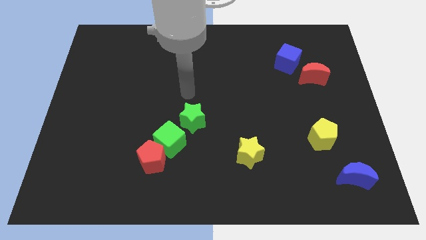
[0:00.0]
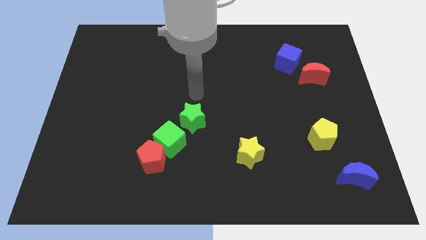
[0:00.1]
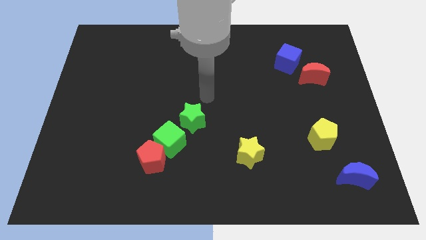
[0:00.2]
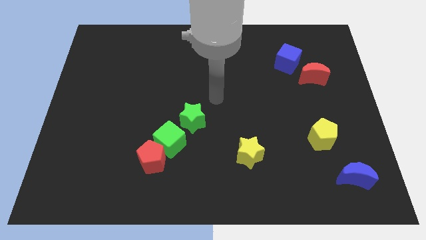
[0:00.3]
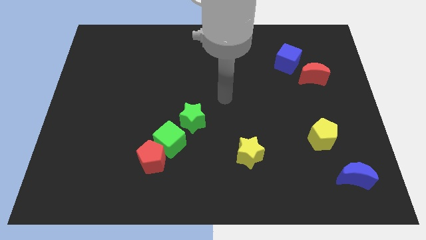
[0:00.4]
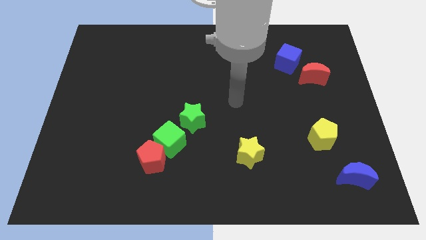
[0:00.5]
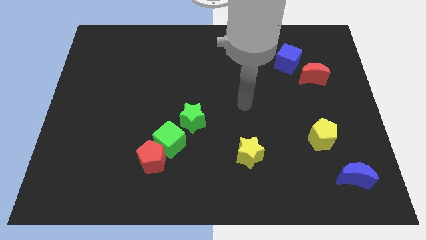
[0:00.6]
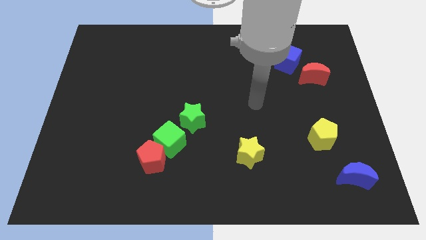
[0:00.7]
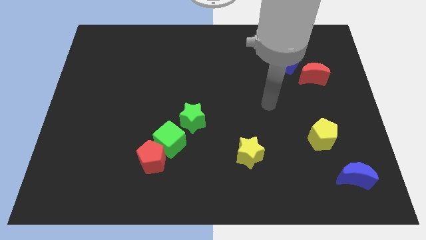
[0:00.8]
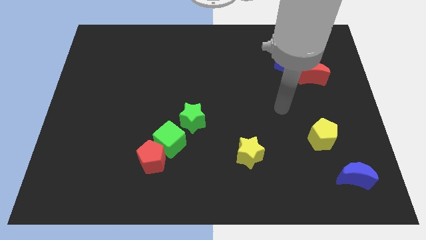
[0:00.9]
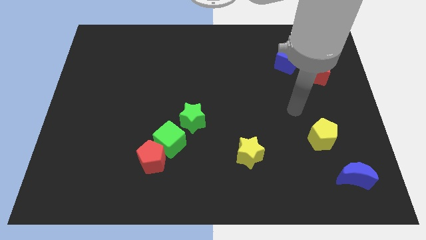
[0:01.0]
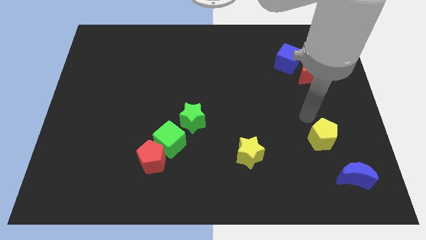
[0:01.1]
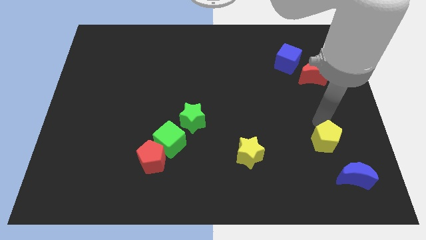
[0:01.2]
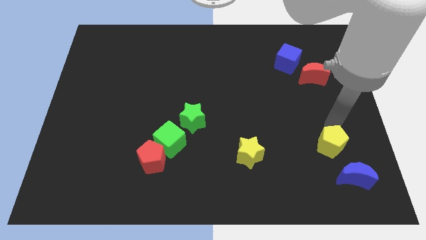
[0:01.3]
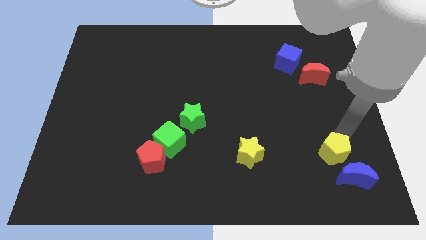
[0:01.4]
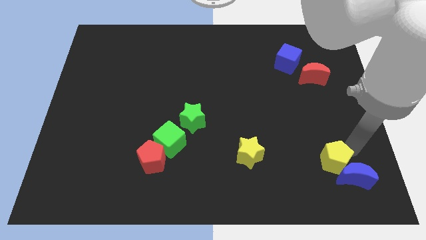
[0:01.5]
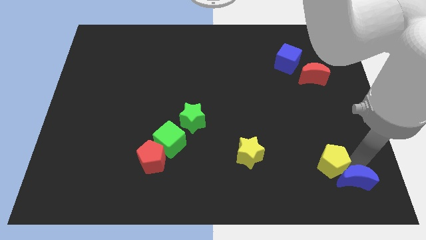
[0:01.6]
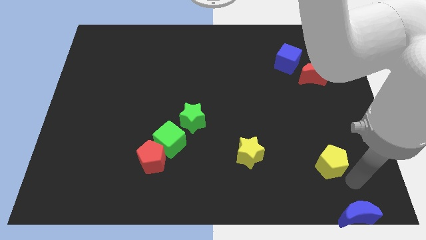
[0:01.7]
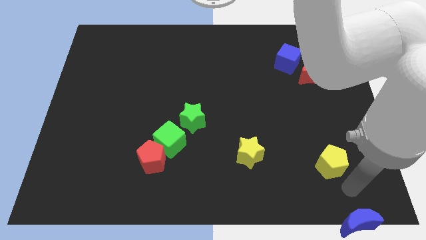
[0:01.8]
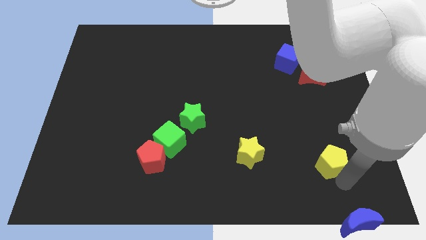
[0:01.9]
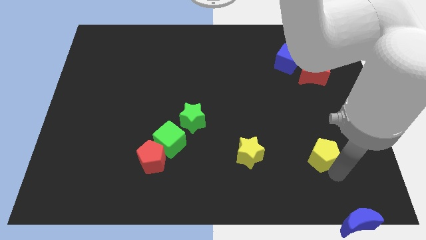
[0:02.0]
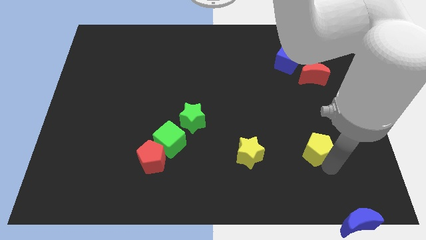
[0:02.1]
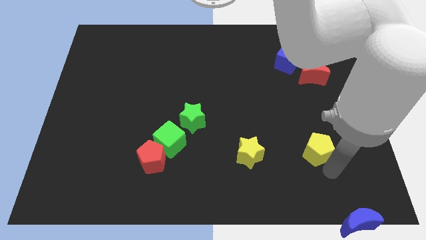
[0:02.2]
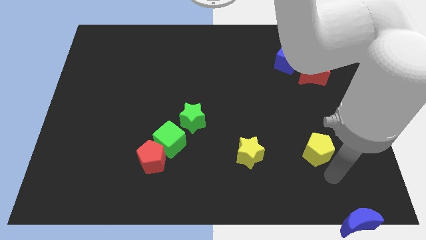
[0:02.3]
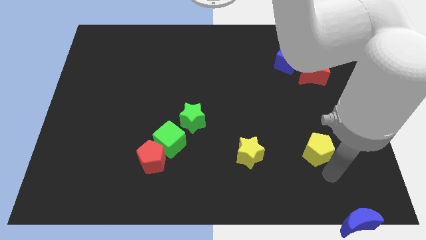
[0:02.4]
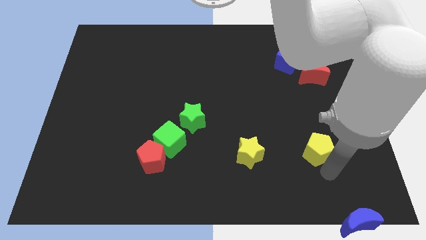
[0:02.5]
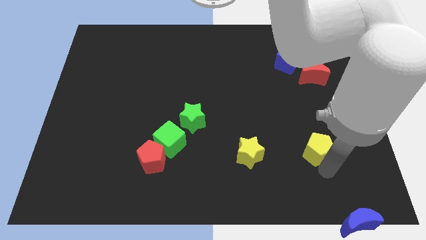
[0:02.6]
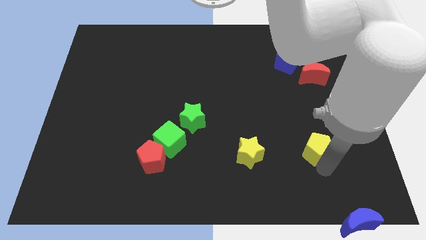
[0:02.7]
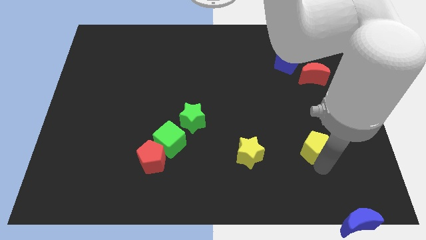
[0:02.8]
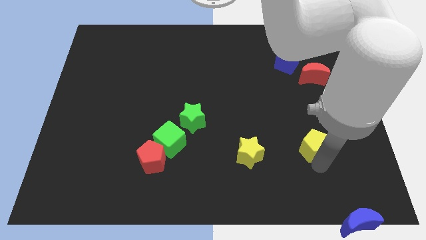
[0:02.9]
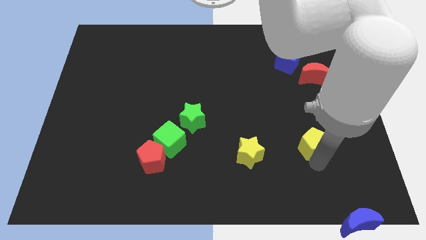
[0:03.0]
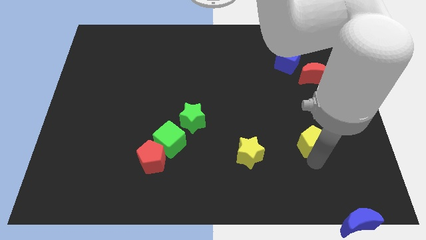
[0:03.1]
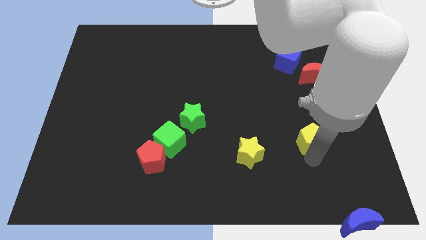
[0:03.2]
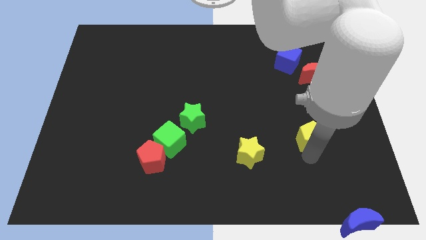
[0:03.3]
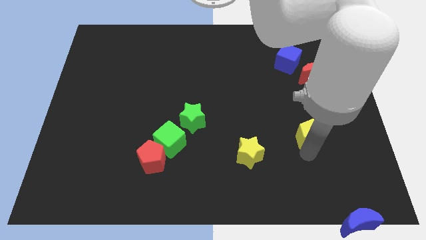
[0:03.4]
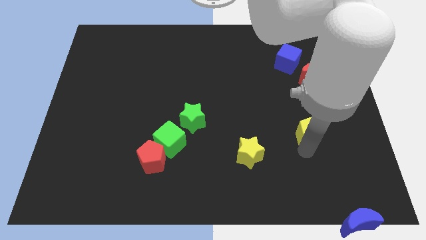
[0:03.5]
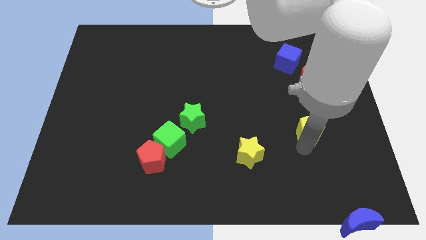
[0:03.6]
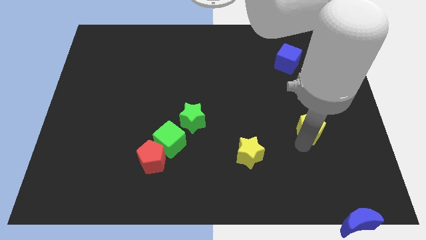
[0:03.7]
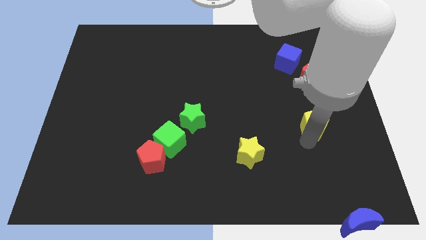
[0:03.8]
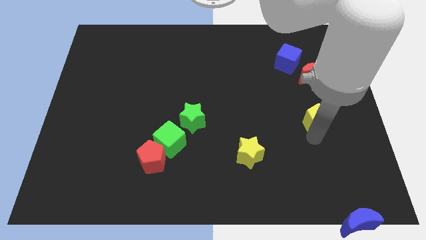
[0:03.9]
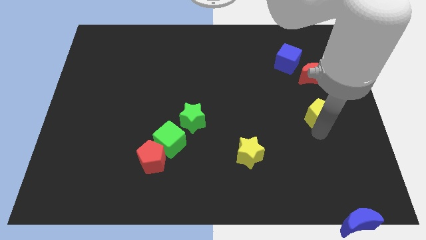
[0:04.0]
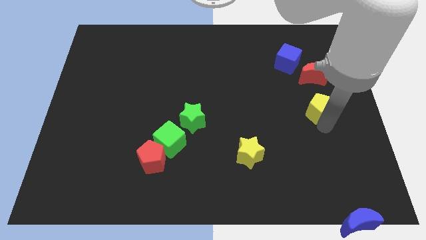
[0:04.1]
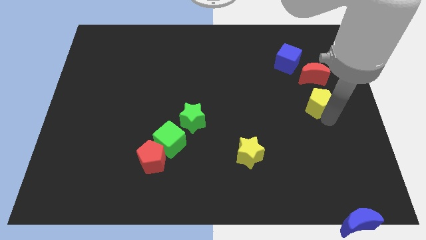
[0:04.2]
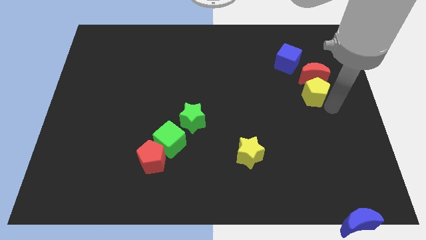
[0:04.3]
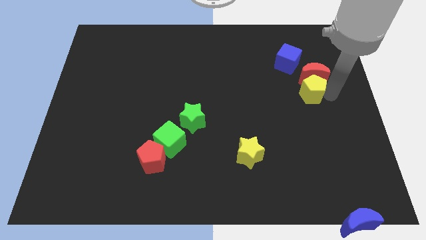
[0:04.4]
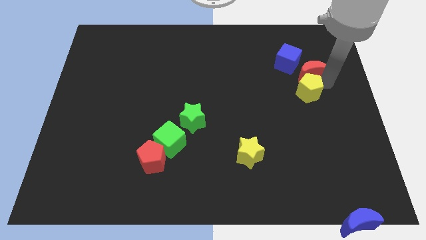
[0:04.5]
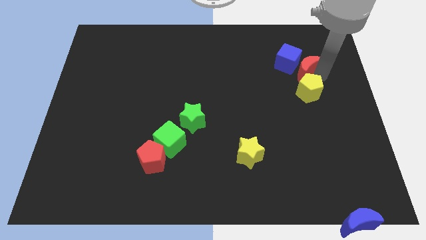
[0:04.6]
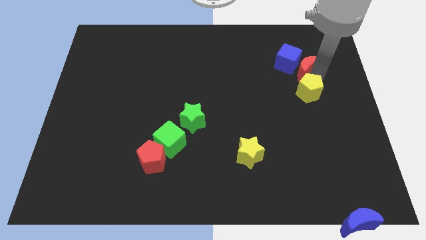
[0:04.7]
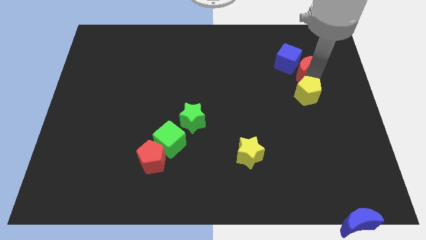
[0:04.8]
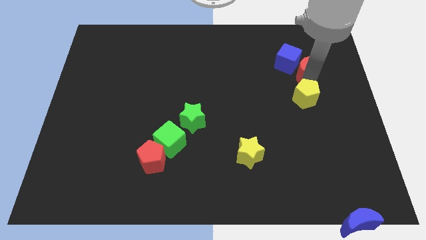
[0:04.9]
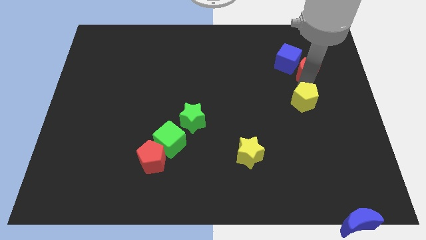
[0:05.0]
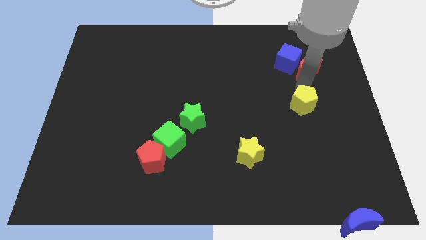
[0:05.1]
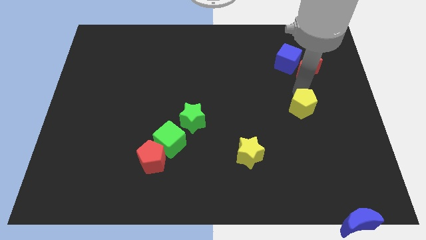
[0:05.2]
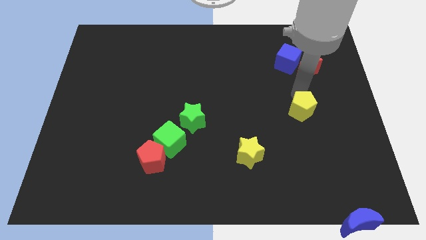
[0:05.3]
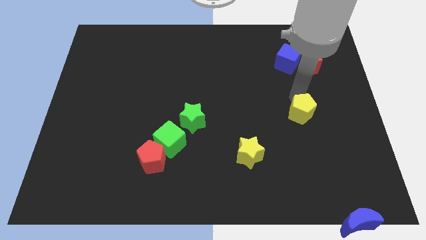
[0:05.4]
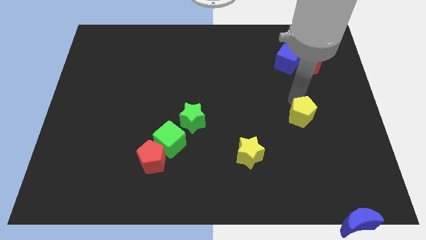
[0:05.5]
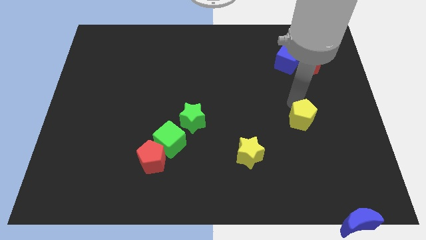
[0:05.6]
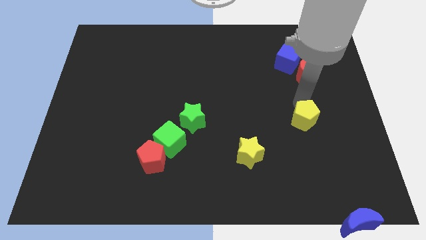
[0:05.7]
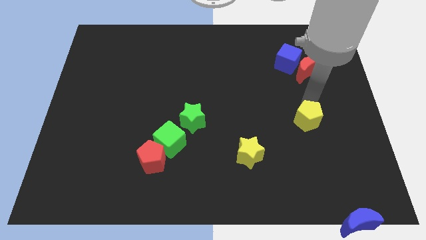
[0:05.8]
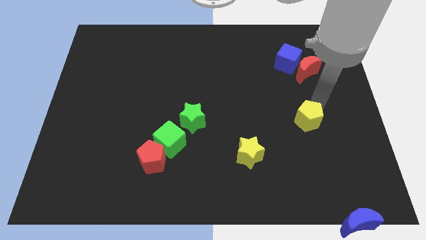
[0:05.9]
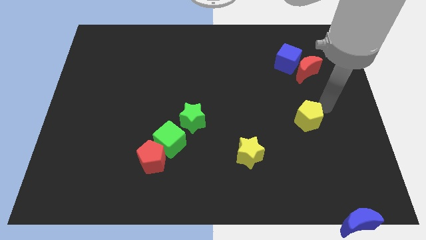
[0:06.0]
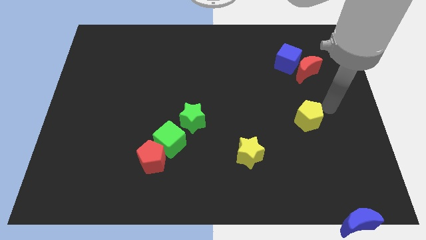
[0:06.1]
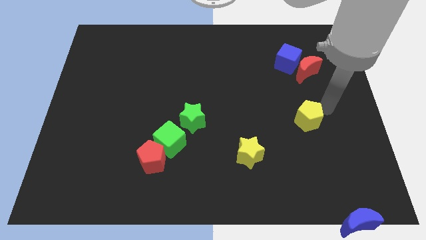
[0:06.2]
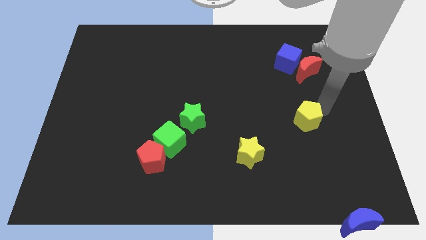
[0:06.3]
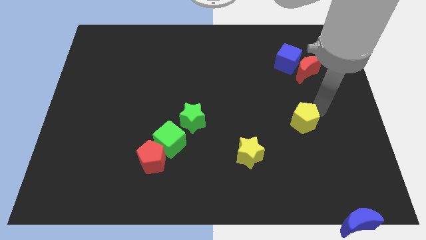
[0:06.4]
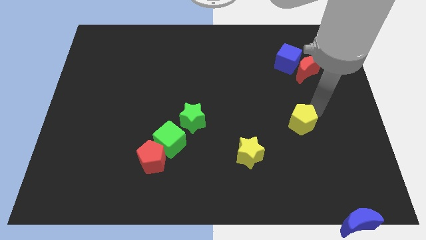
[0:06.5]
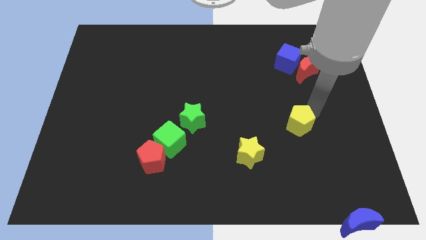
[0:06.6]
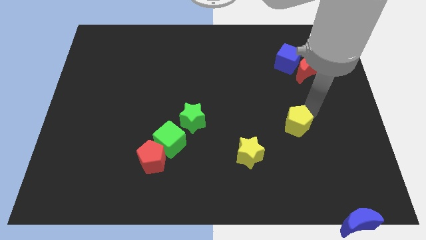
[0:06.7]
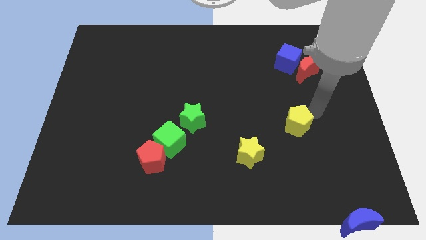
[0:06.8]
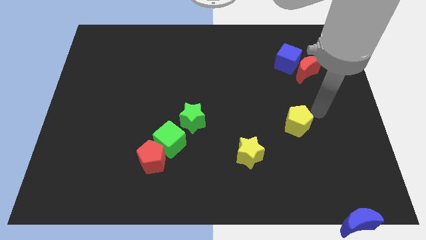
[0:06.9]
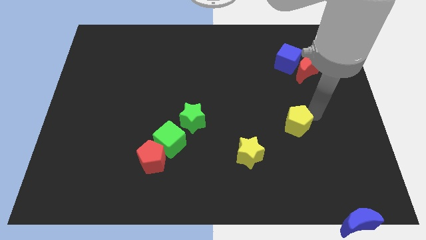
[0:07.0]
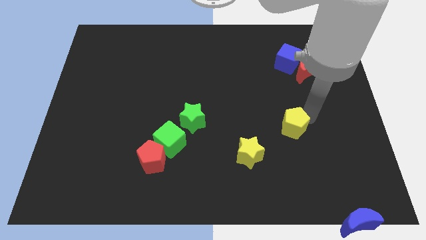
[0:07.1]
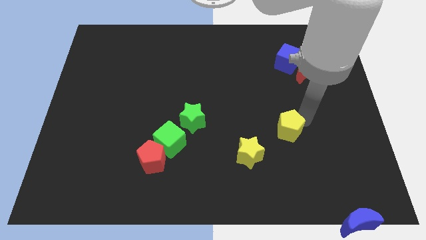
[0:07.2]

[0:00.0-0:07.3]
push the yellow pentagon a little to the left

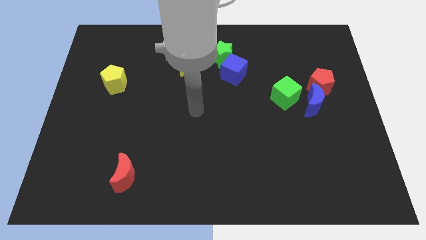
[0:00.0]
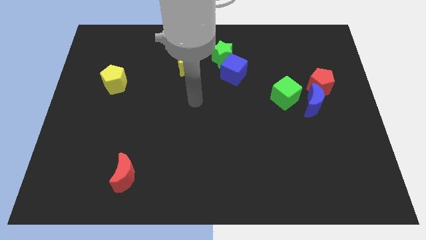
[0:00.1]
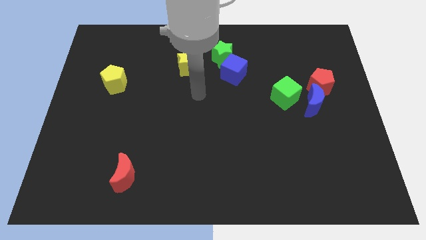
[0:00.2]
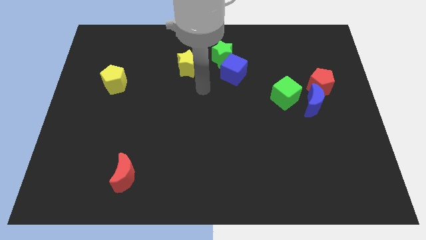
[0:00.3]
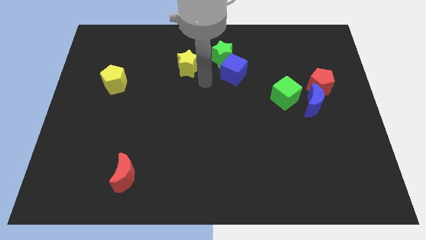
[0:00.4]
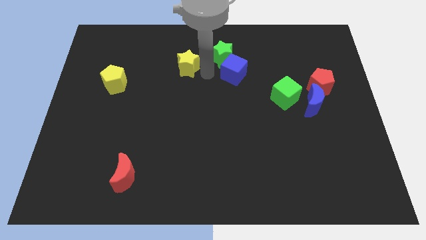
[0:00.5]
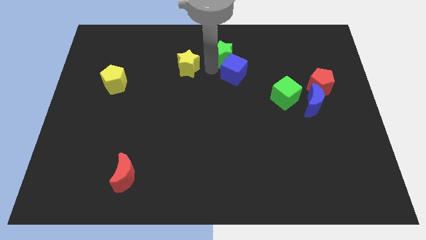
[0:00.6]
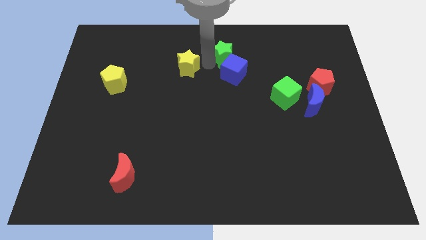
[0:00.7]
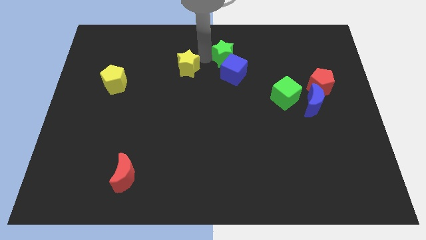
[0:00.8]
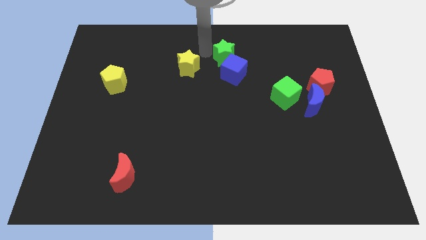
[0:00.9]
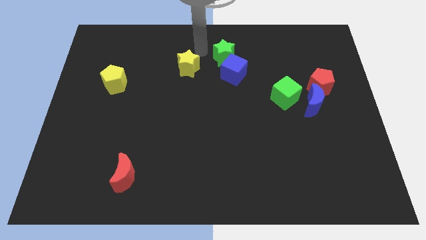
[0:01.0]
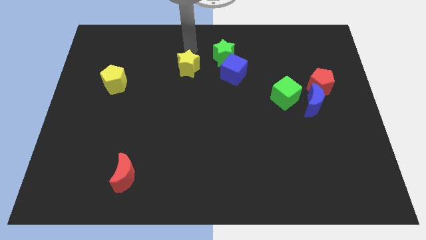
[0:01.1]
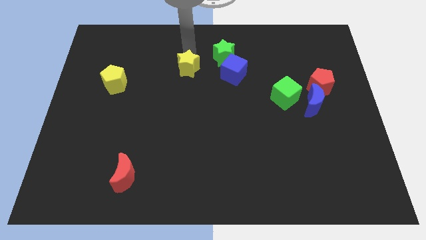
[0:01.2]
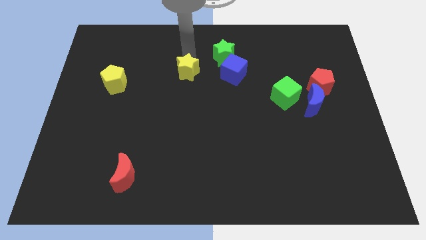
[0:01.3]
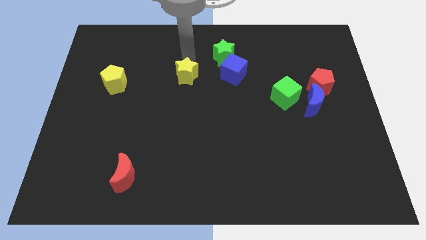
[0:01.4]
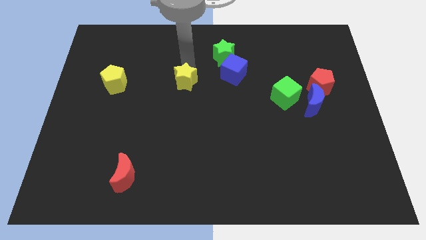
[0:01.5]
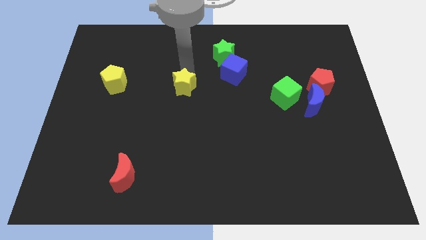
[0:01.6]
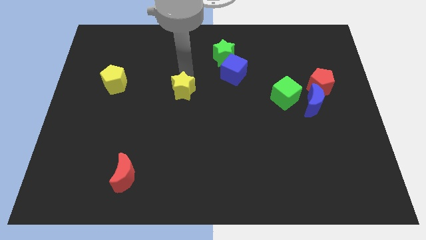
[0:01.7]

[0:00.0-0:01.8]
push the yellow star downwards somewhat
